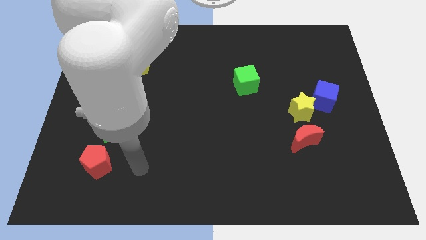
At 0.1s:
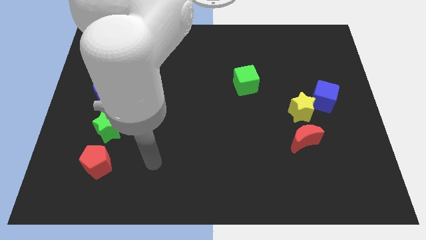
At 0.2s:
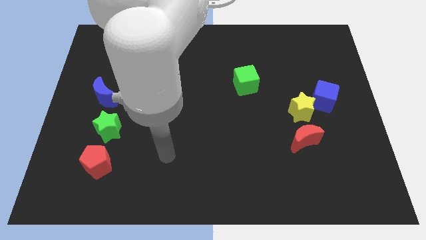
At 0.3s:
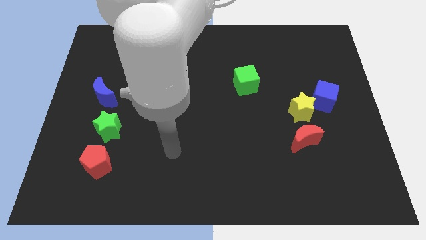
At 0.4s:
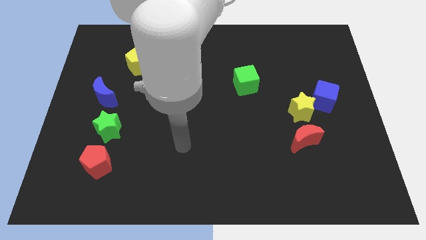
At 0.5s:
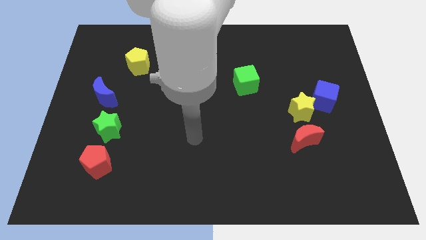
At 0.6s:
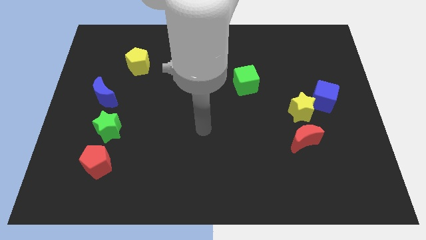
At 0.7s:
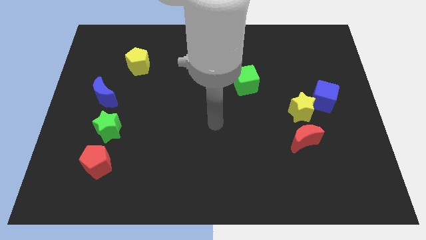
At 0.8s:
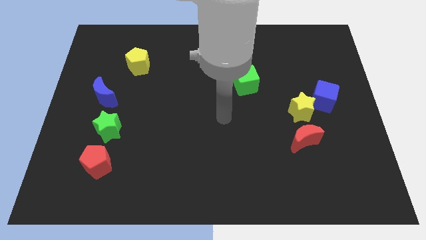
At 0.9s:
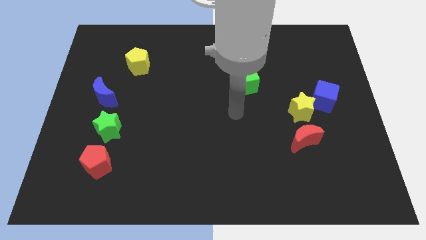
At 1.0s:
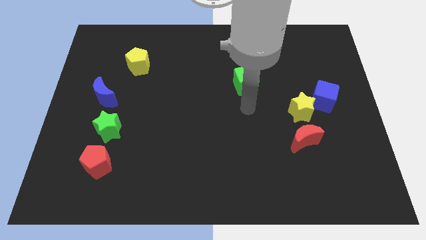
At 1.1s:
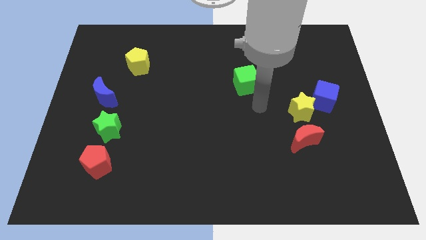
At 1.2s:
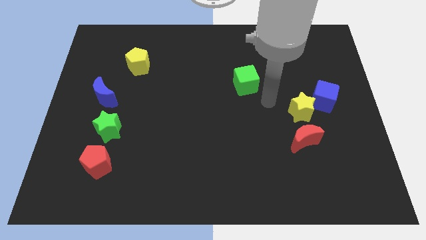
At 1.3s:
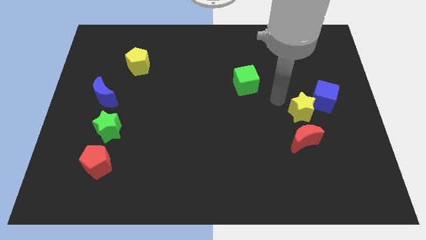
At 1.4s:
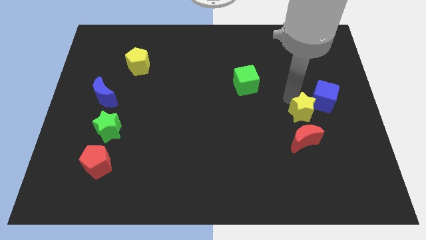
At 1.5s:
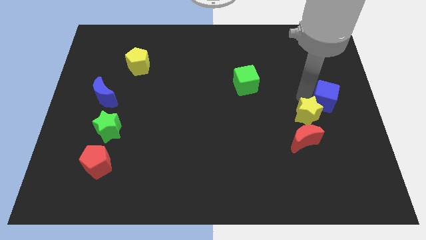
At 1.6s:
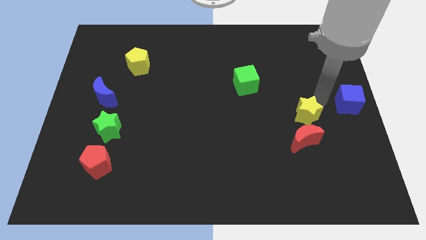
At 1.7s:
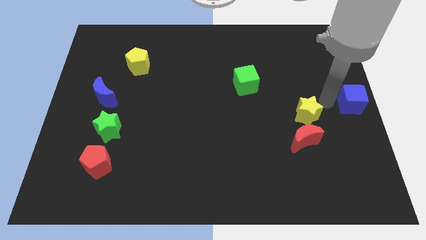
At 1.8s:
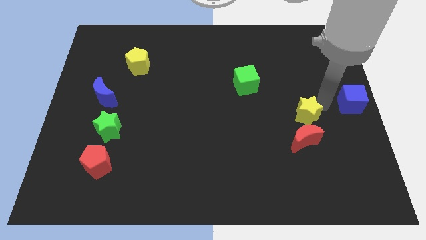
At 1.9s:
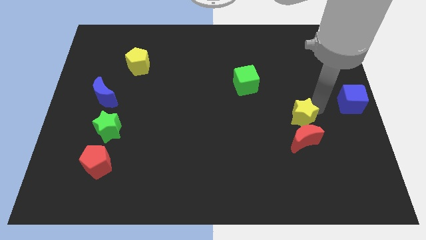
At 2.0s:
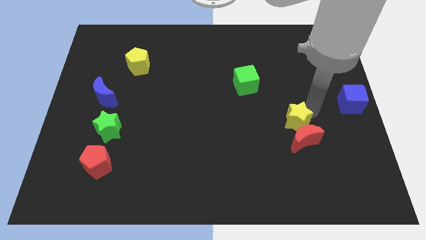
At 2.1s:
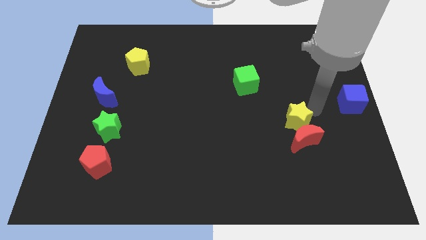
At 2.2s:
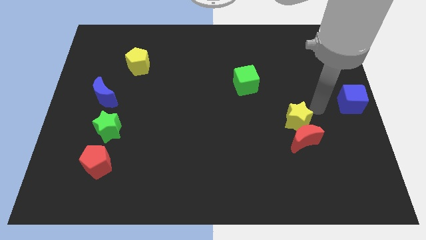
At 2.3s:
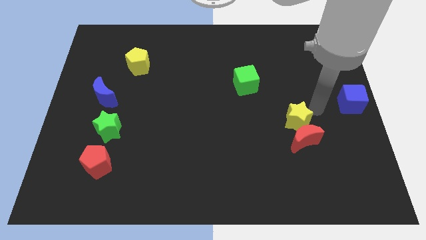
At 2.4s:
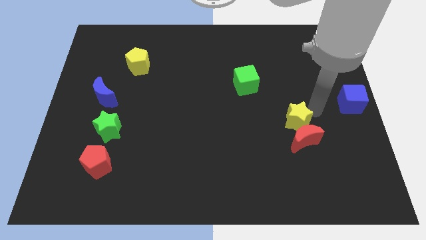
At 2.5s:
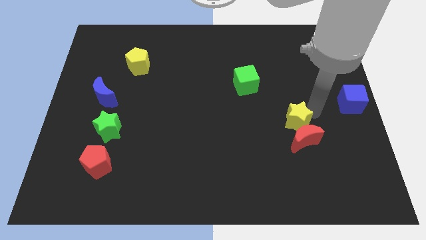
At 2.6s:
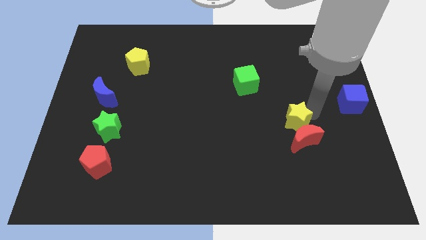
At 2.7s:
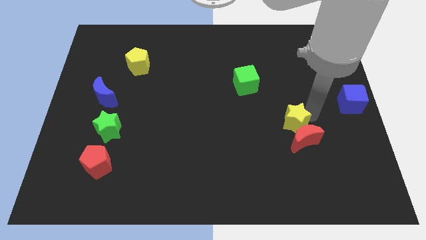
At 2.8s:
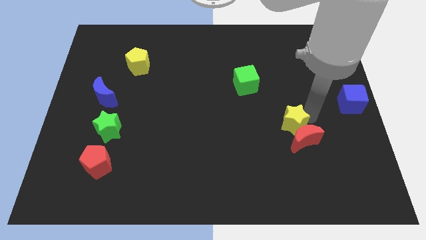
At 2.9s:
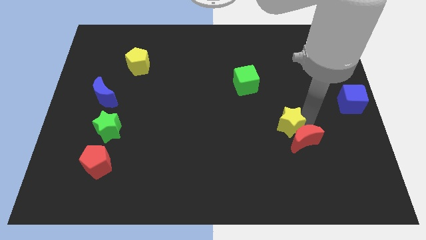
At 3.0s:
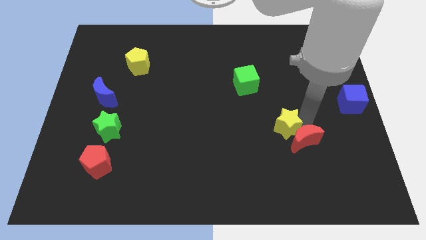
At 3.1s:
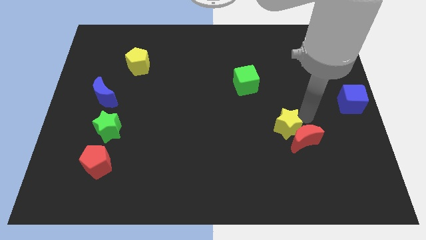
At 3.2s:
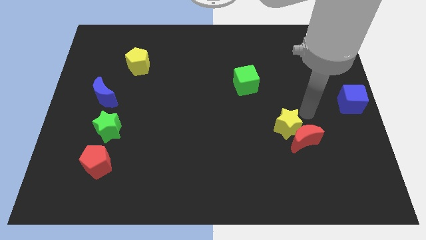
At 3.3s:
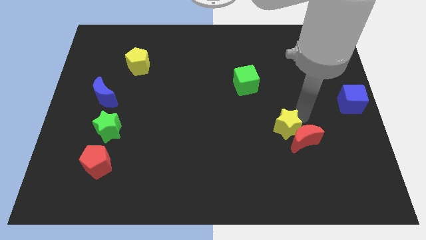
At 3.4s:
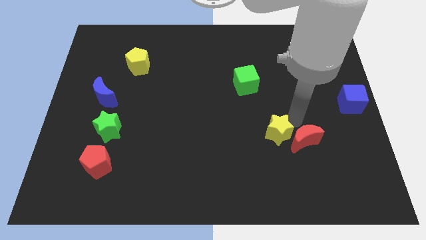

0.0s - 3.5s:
slide the yellow star down and left diagonally a little

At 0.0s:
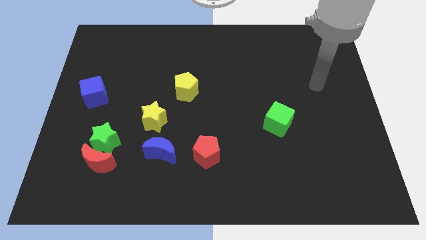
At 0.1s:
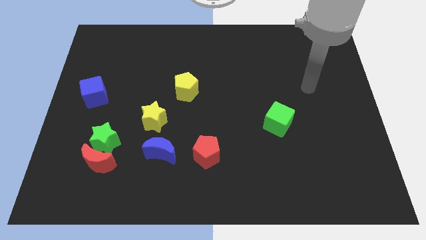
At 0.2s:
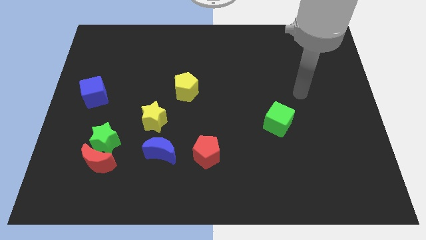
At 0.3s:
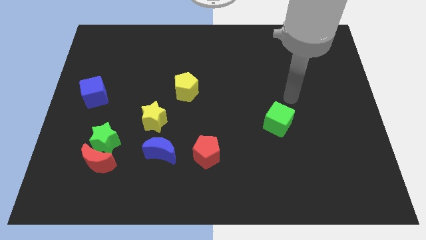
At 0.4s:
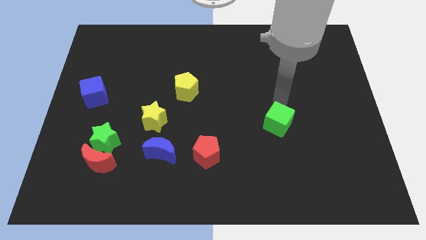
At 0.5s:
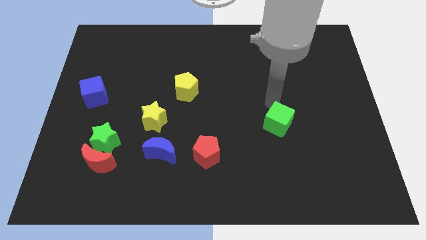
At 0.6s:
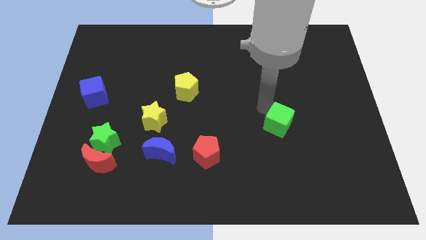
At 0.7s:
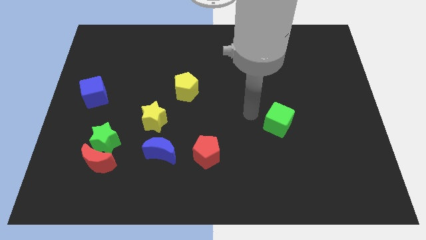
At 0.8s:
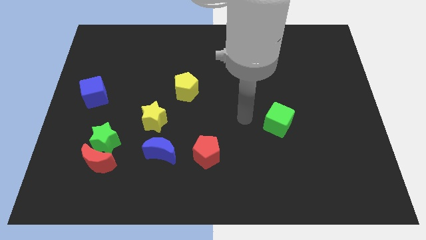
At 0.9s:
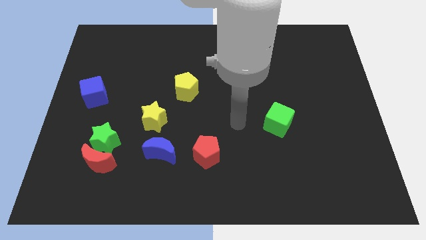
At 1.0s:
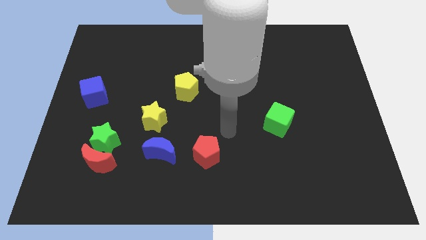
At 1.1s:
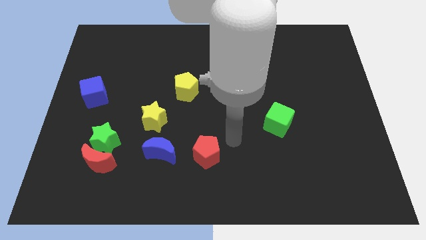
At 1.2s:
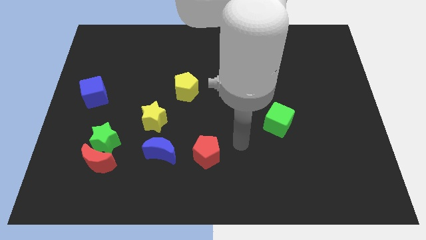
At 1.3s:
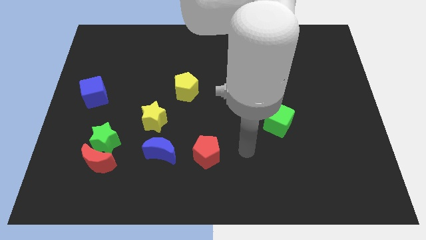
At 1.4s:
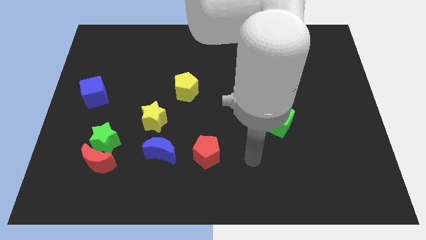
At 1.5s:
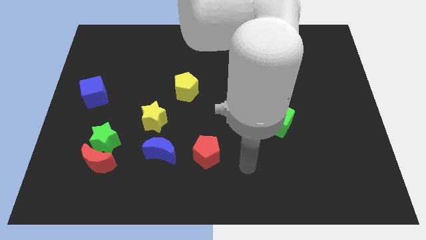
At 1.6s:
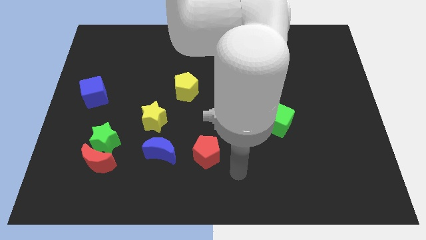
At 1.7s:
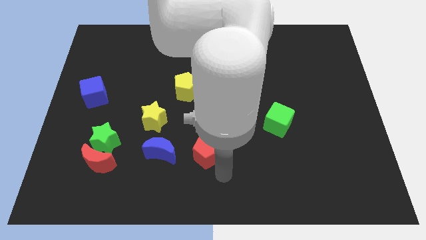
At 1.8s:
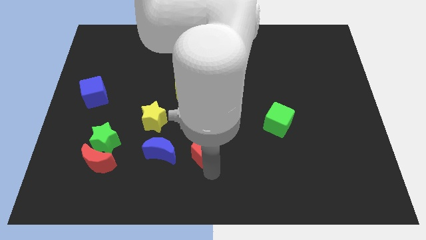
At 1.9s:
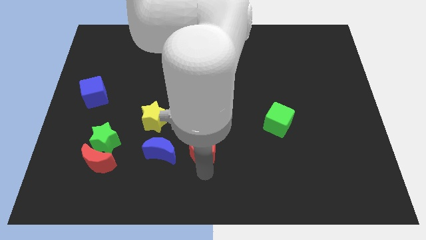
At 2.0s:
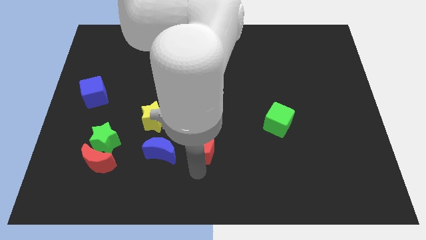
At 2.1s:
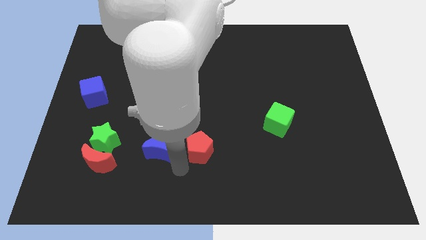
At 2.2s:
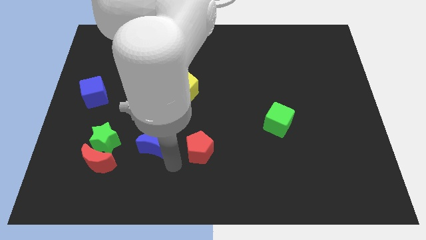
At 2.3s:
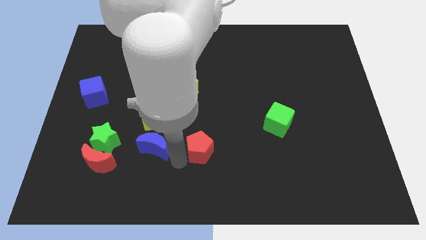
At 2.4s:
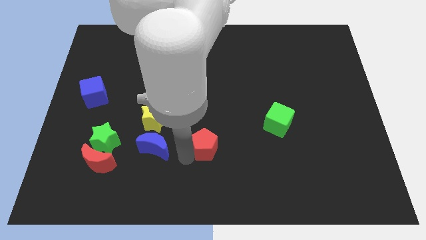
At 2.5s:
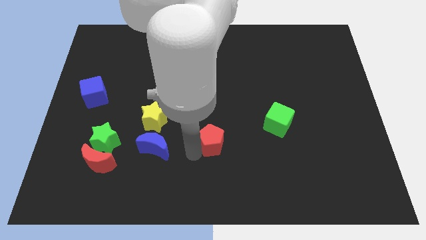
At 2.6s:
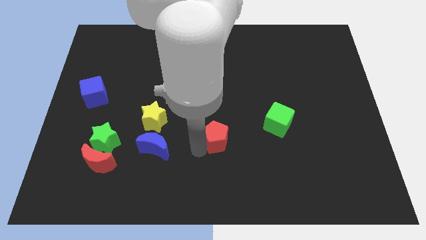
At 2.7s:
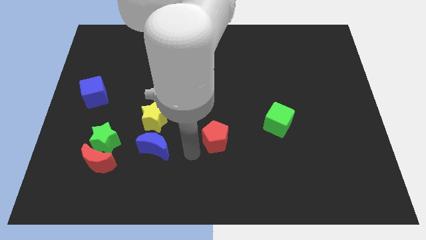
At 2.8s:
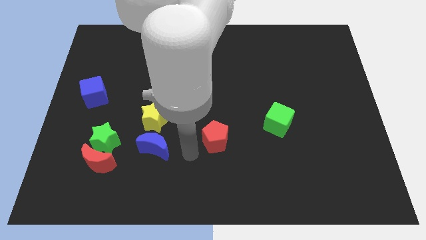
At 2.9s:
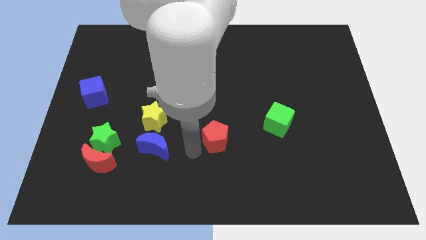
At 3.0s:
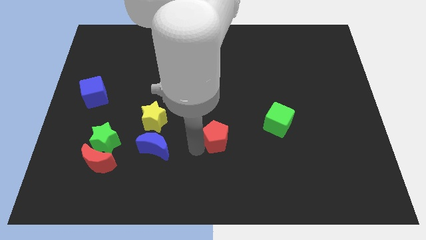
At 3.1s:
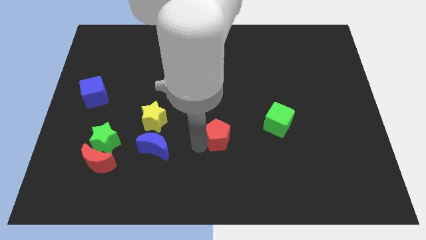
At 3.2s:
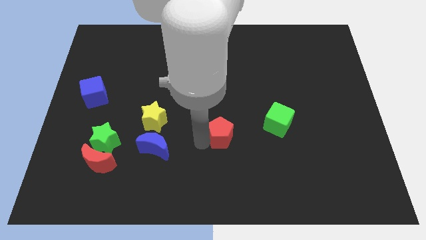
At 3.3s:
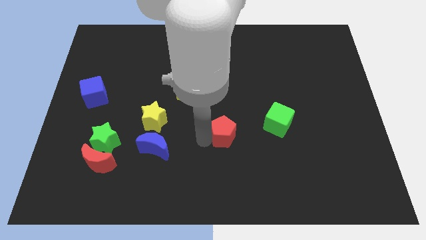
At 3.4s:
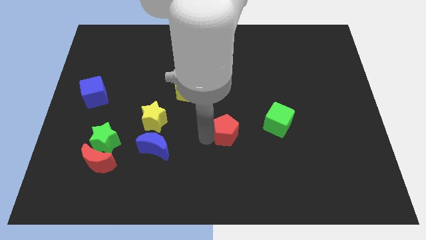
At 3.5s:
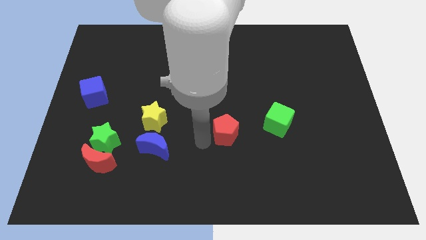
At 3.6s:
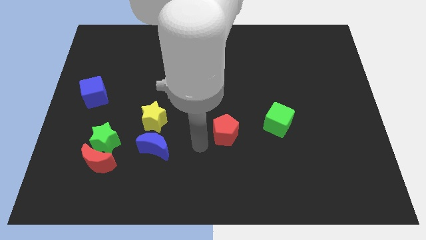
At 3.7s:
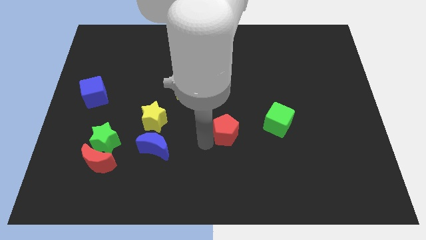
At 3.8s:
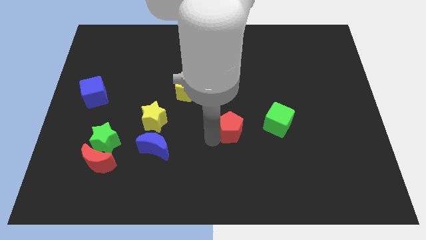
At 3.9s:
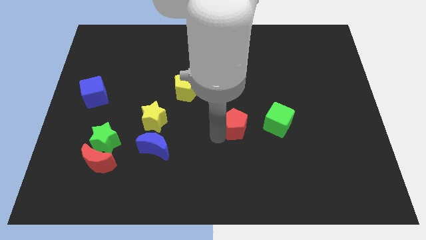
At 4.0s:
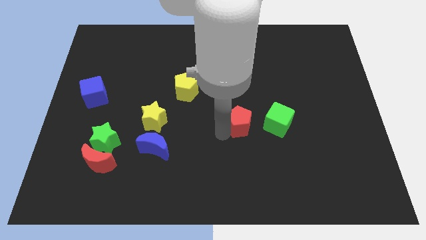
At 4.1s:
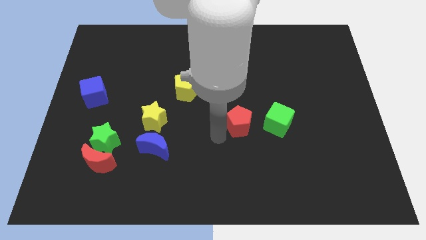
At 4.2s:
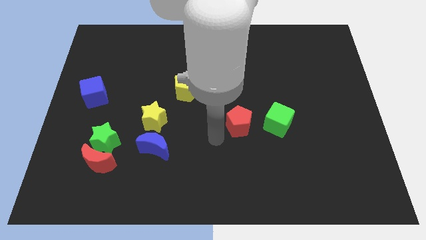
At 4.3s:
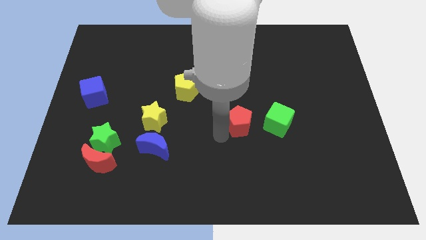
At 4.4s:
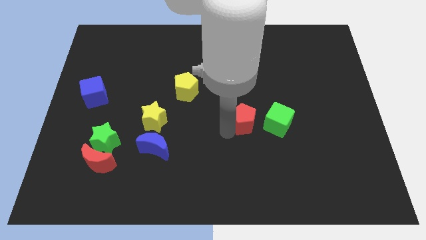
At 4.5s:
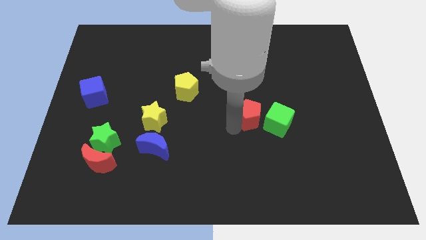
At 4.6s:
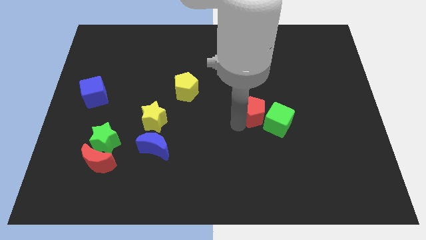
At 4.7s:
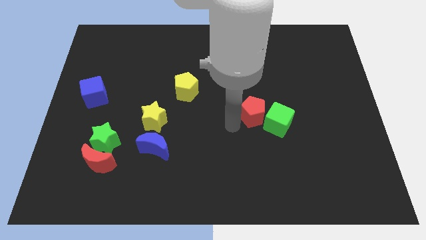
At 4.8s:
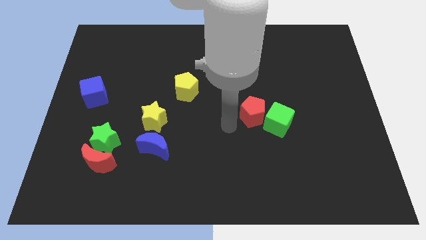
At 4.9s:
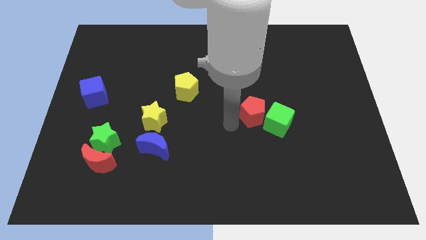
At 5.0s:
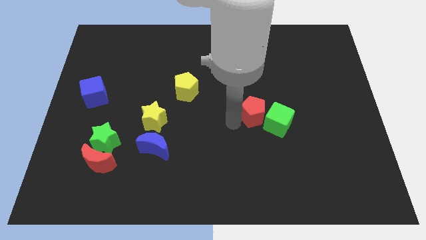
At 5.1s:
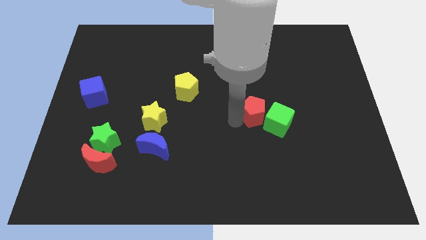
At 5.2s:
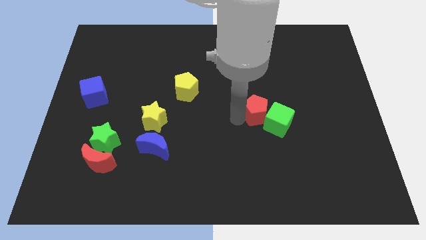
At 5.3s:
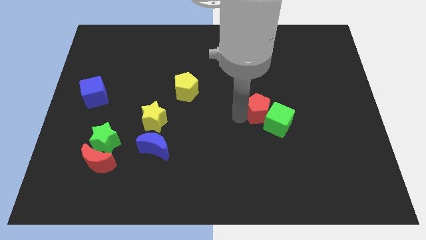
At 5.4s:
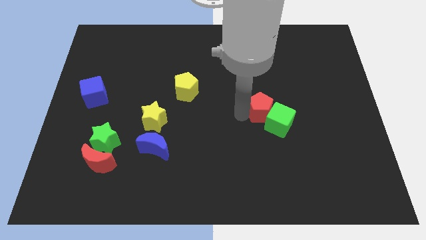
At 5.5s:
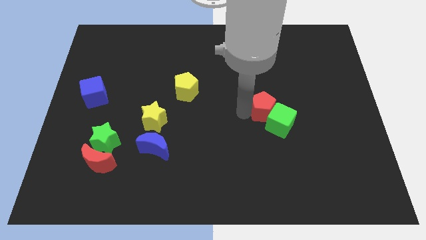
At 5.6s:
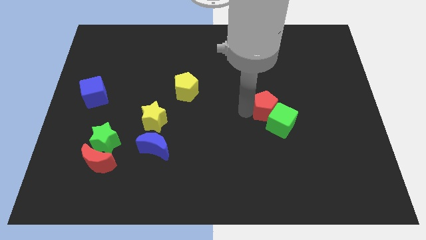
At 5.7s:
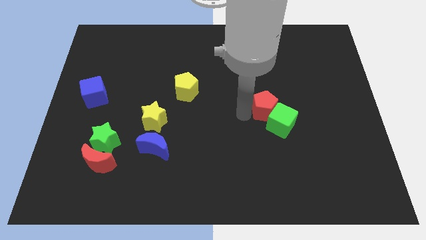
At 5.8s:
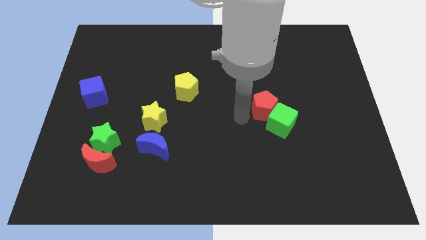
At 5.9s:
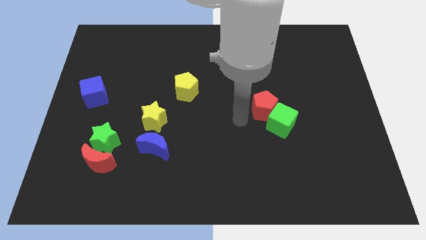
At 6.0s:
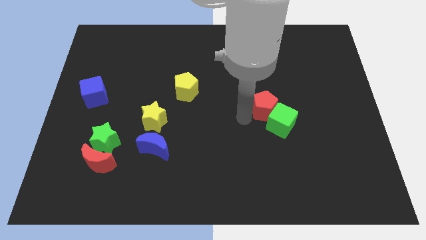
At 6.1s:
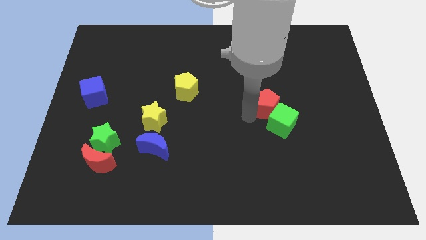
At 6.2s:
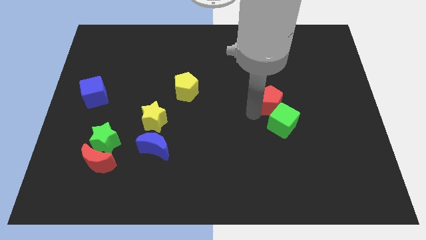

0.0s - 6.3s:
push the red pentagon up and then right
